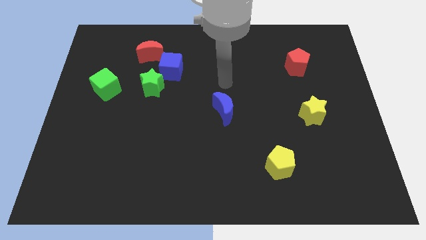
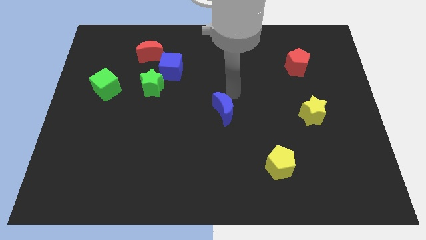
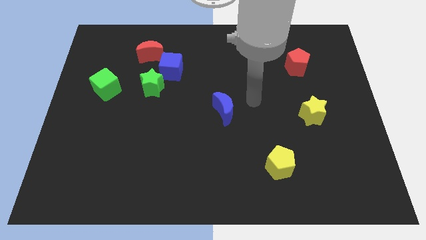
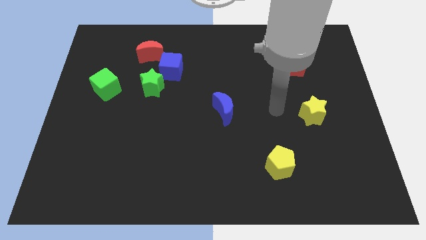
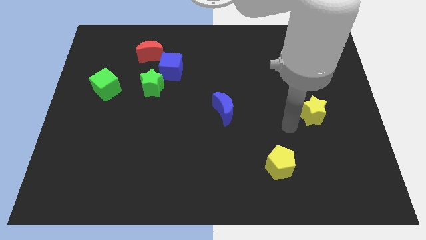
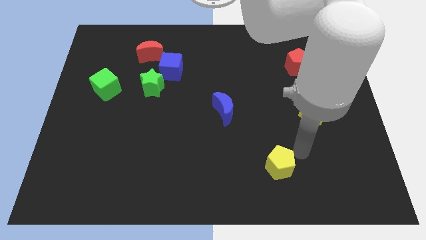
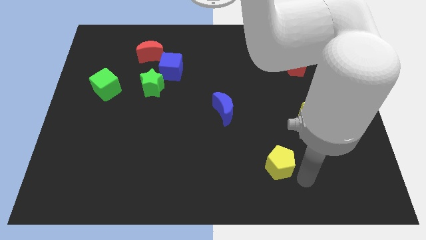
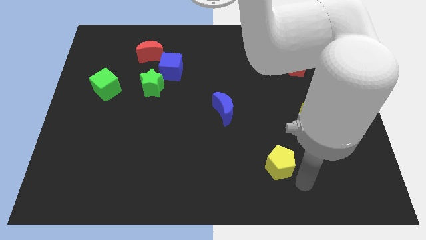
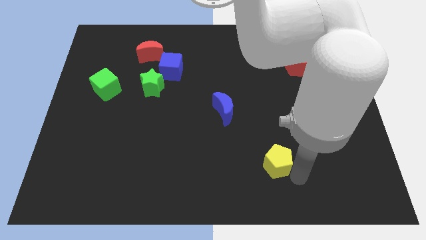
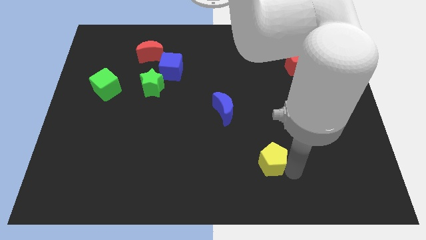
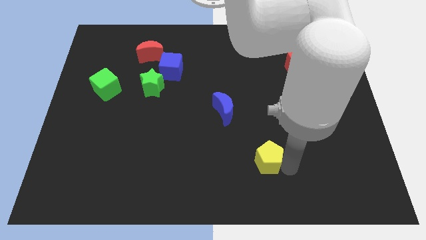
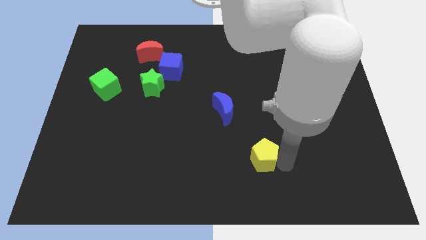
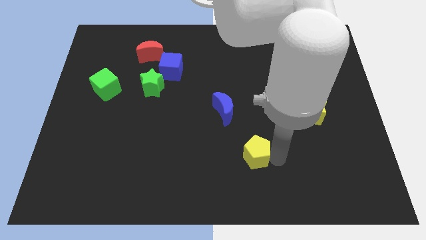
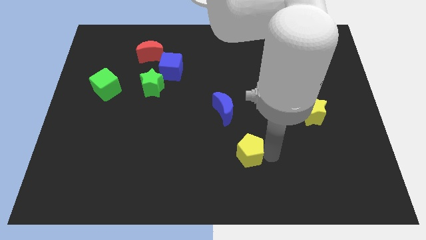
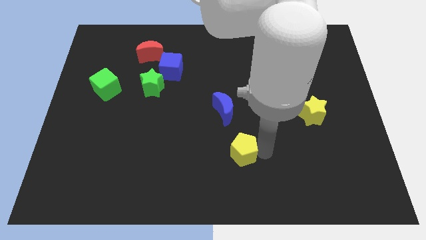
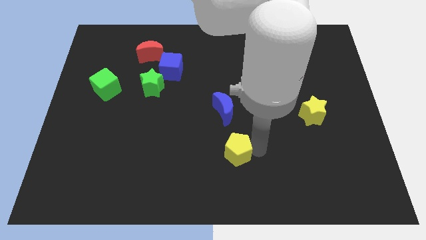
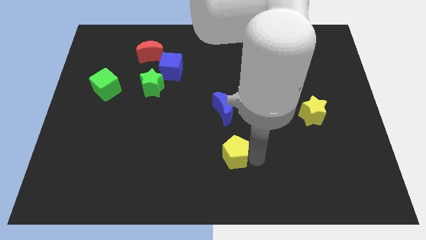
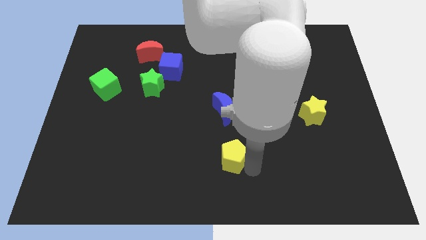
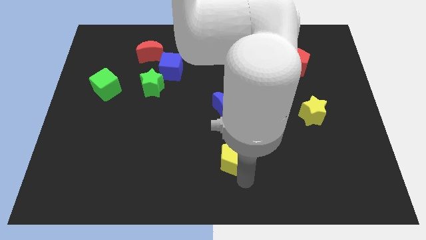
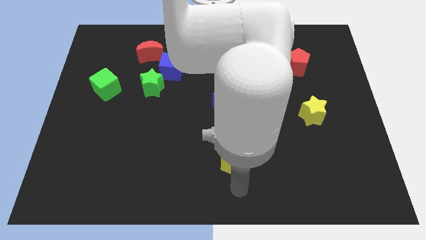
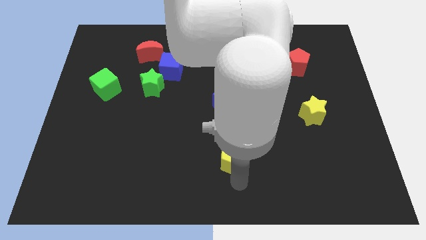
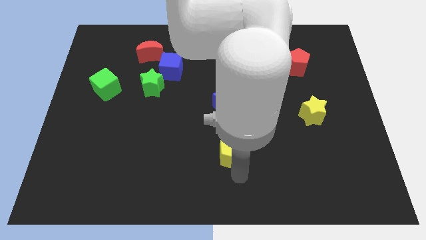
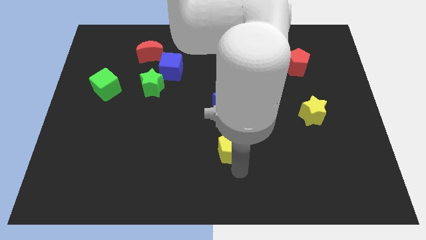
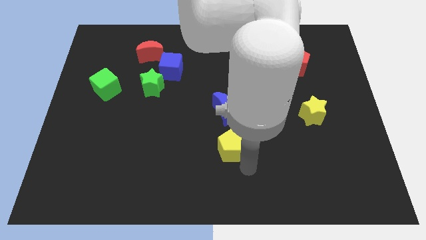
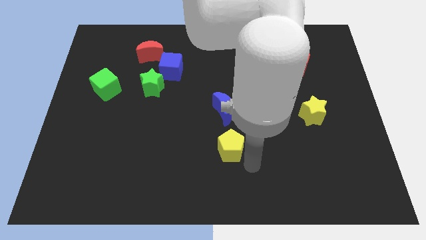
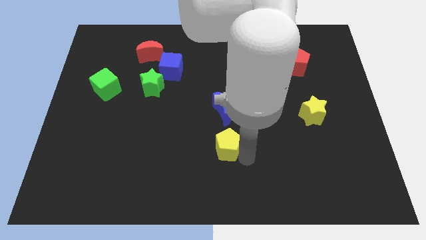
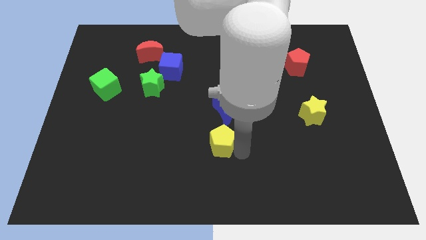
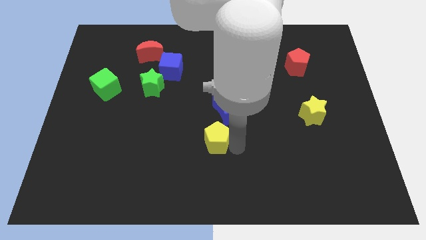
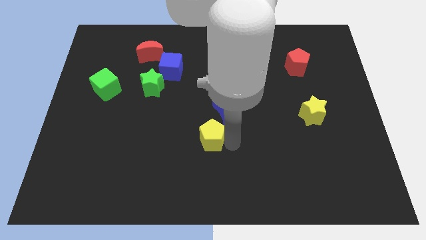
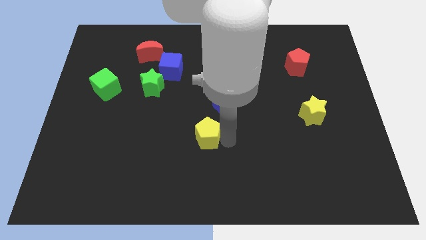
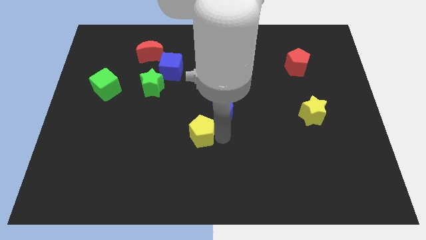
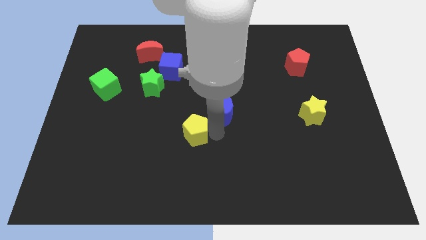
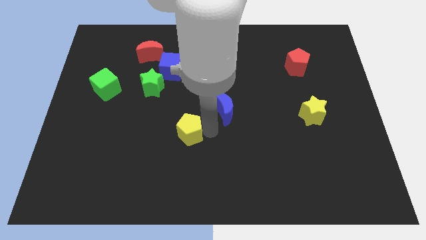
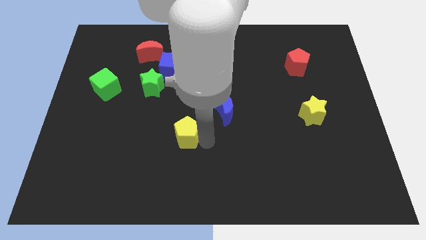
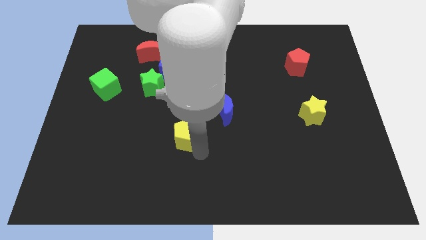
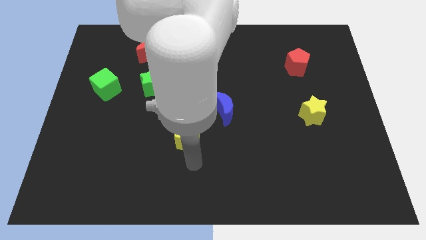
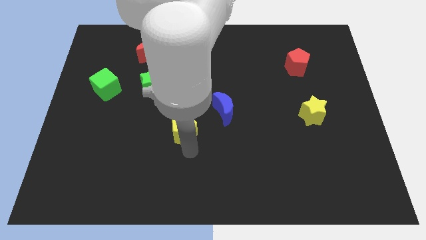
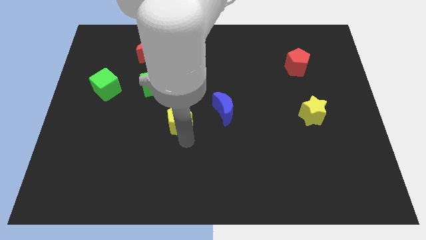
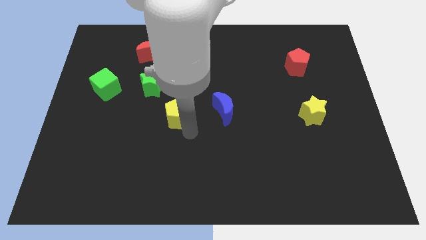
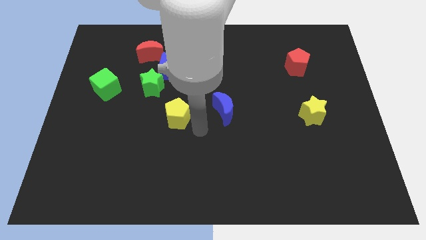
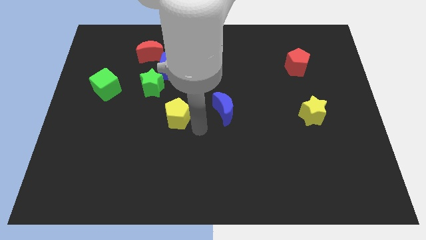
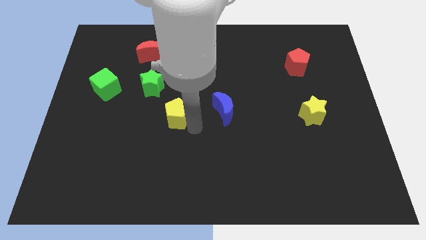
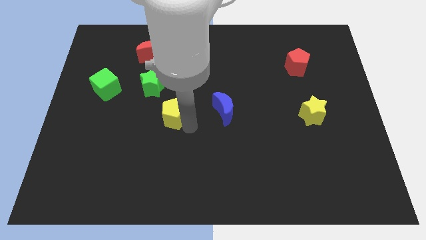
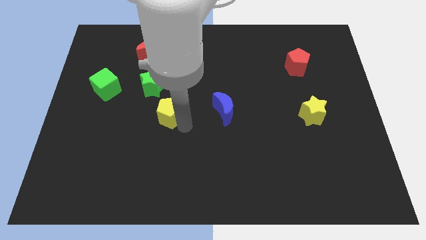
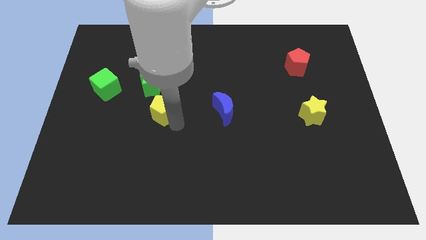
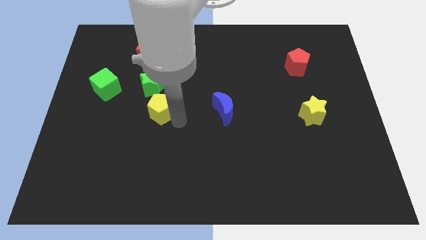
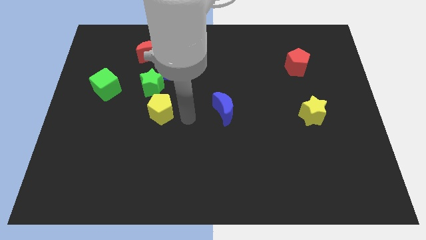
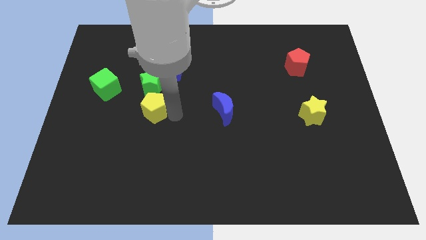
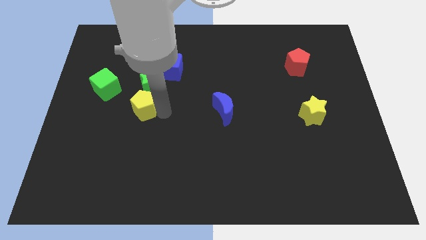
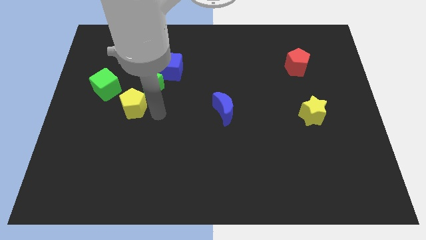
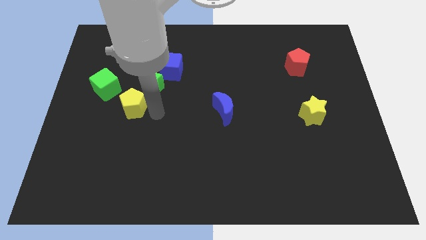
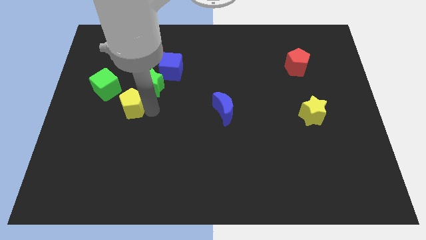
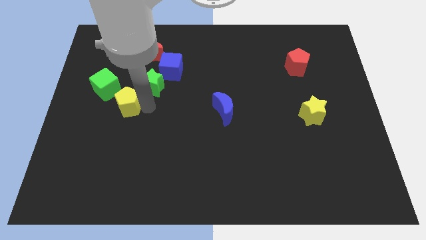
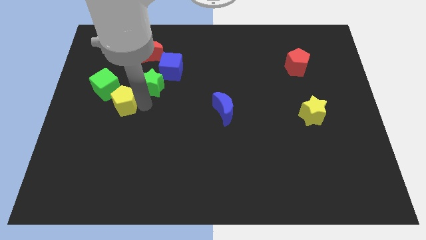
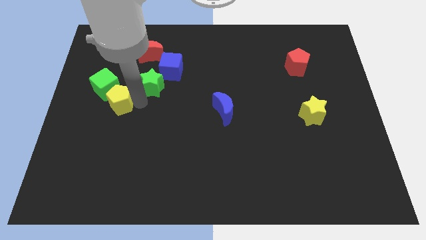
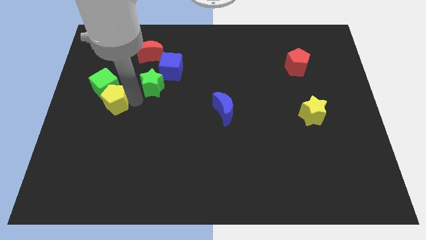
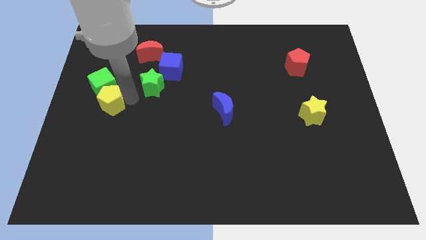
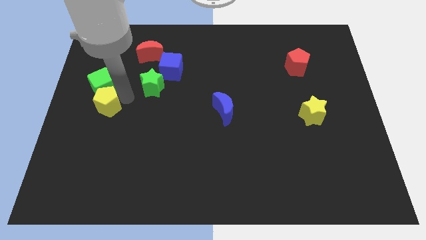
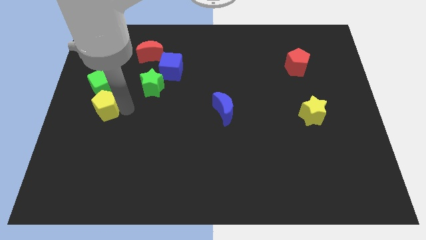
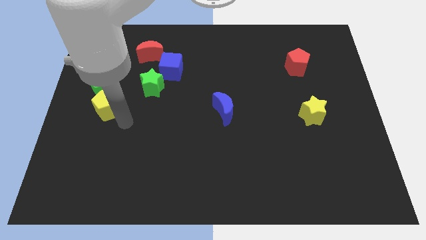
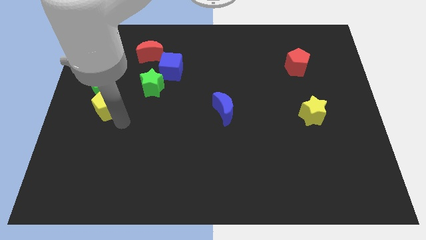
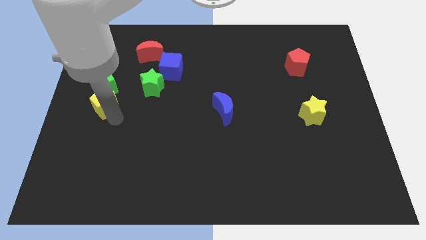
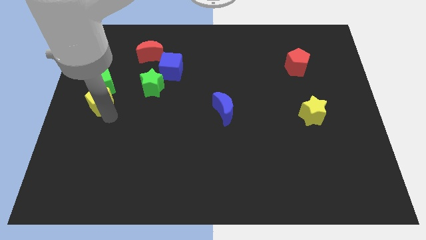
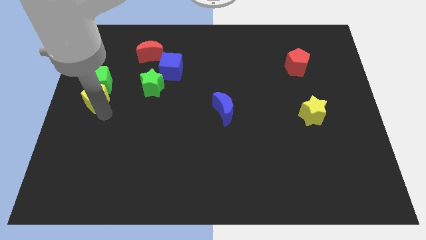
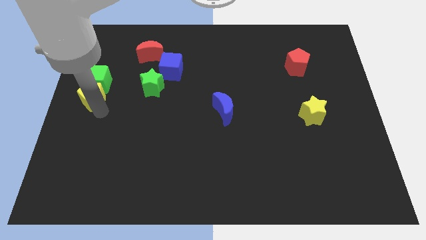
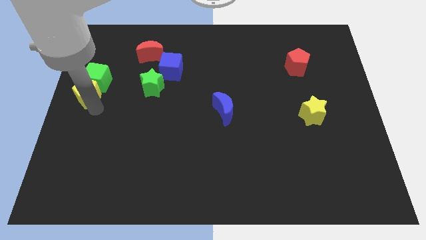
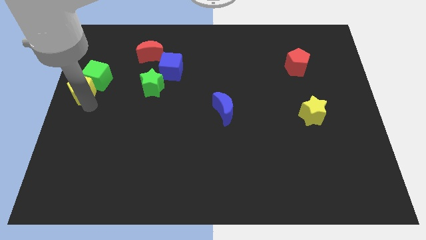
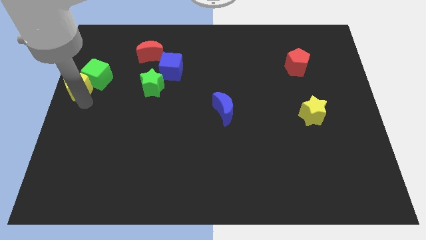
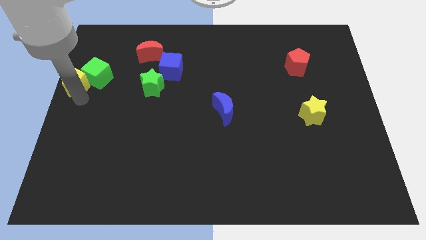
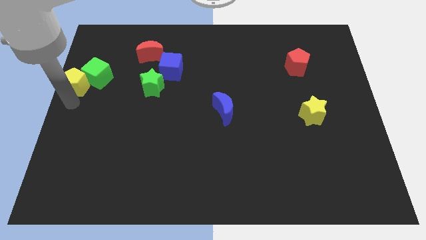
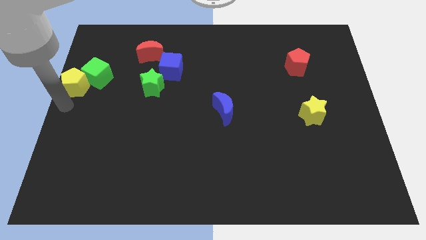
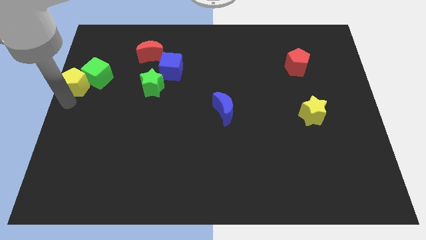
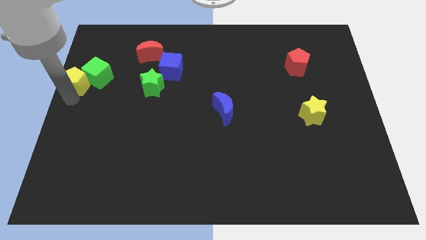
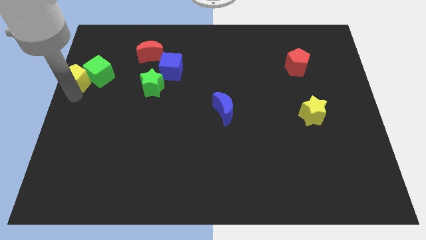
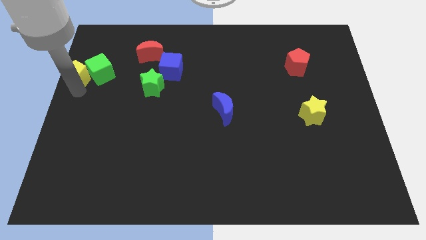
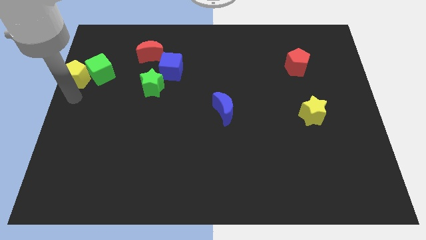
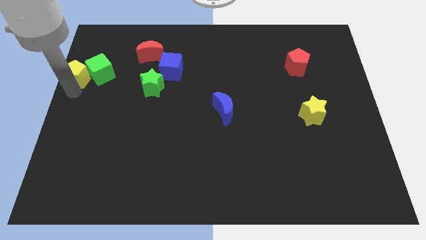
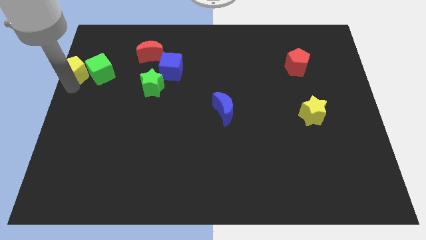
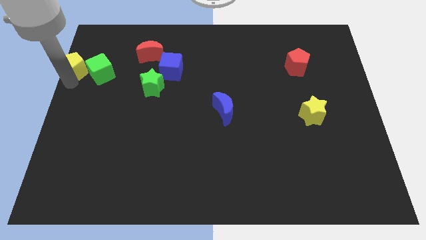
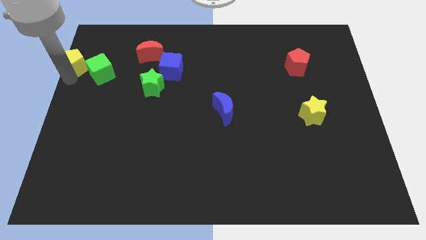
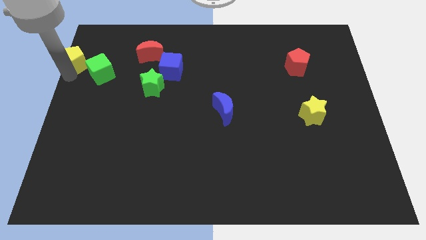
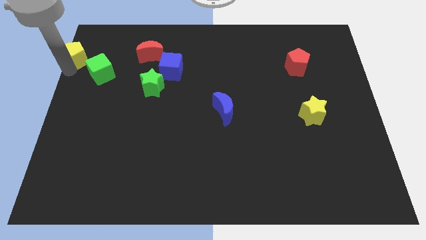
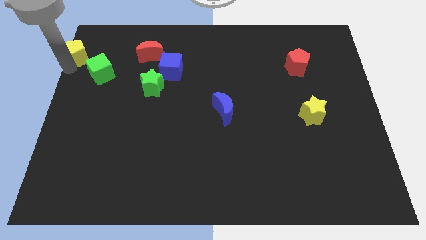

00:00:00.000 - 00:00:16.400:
put the yellow pentagon to the top left
